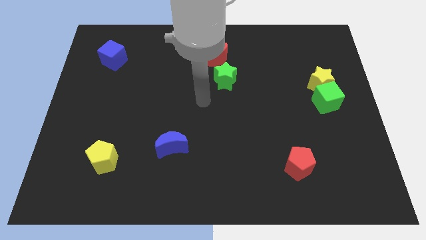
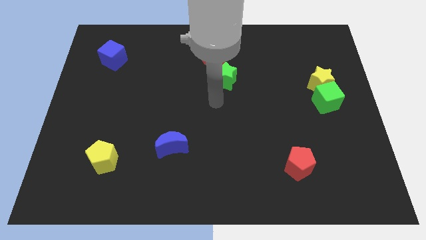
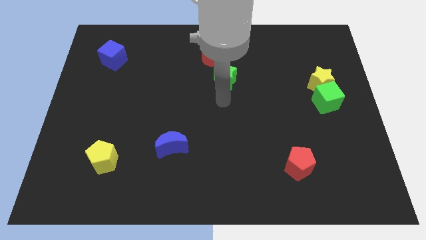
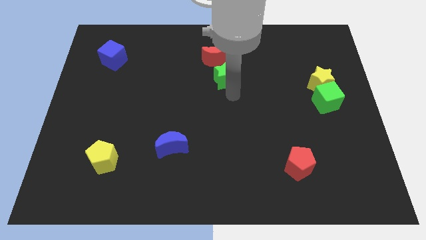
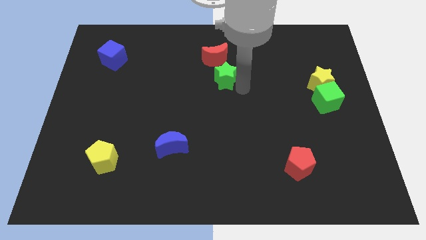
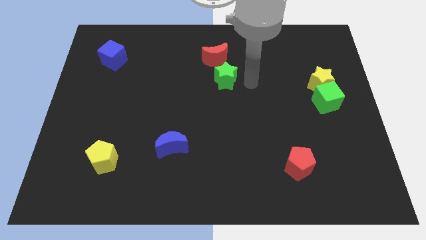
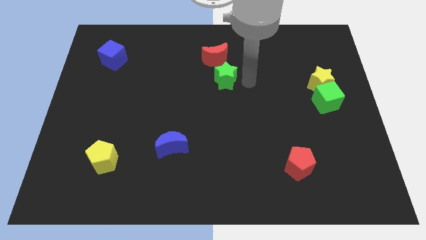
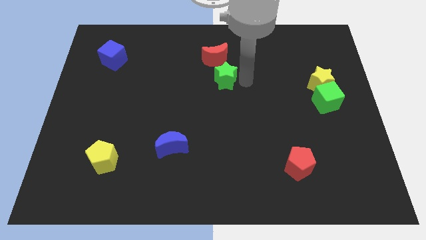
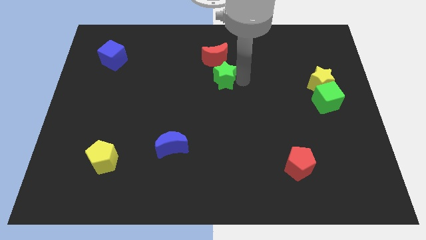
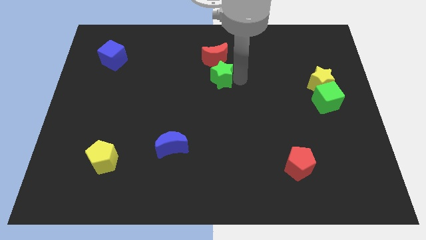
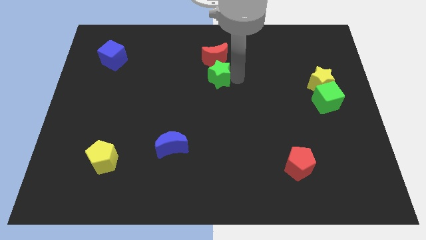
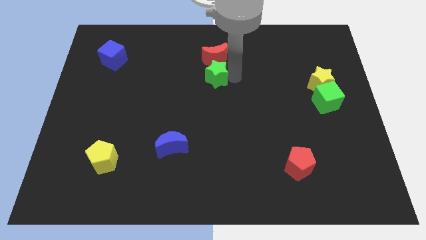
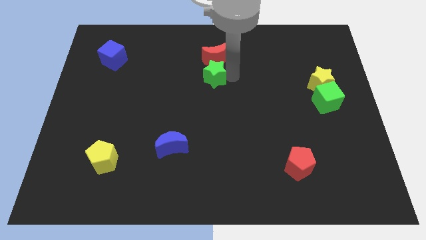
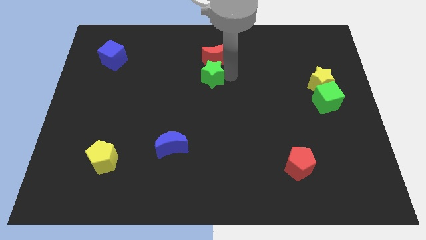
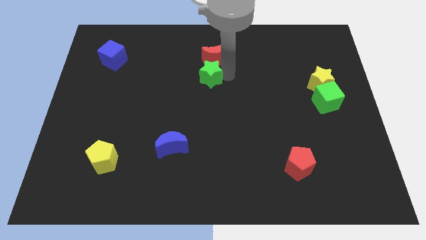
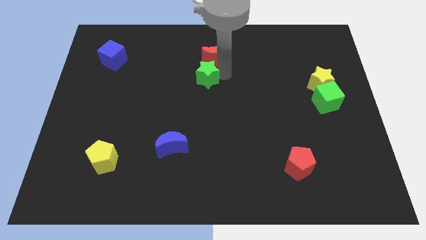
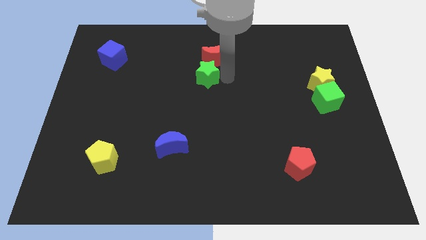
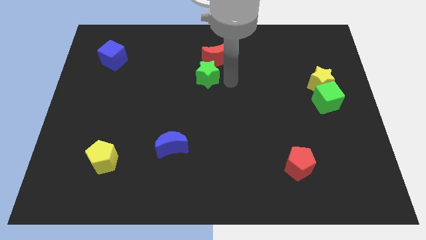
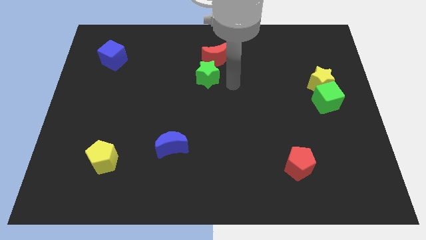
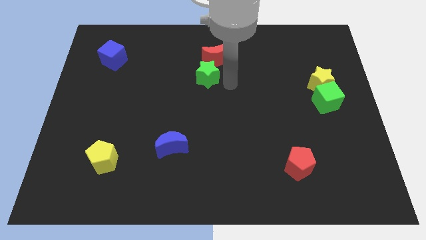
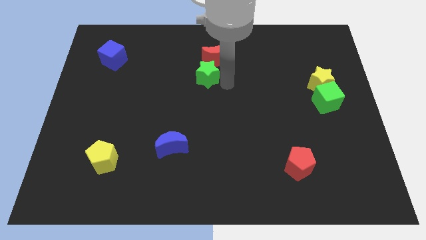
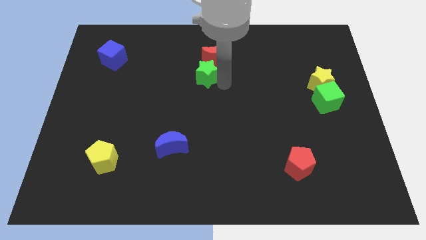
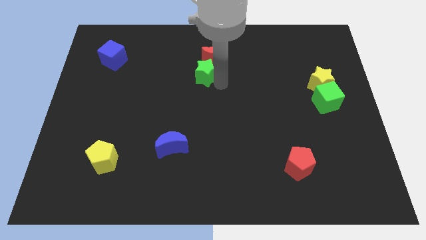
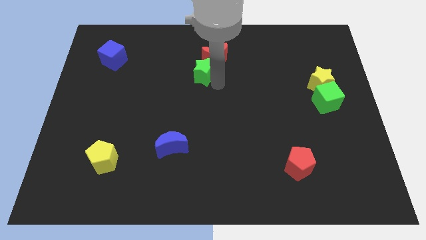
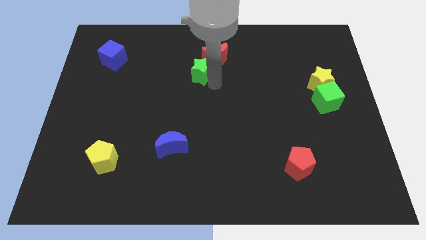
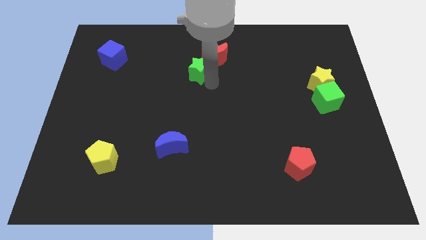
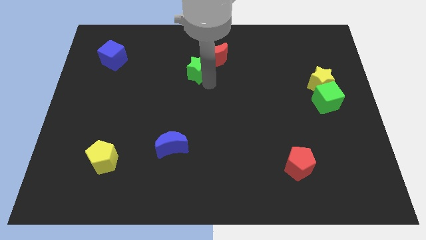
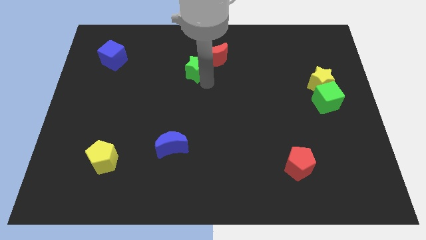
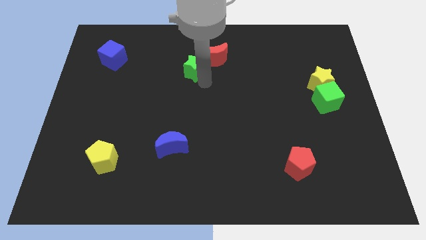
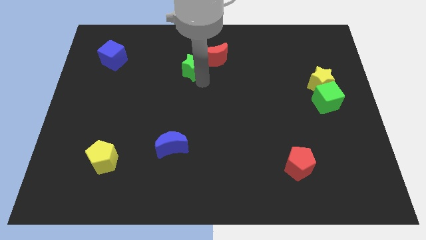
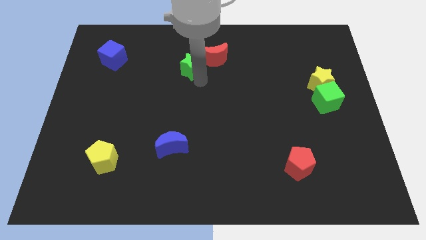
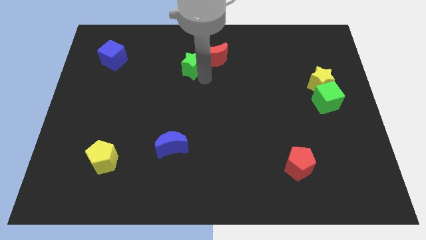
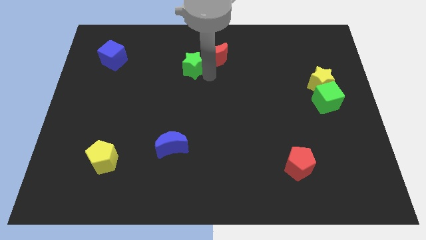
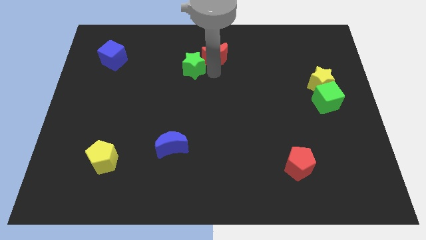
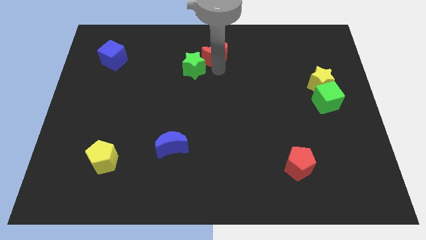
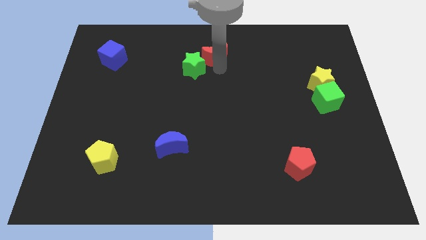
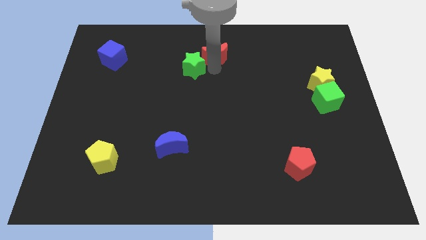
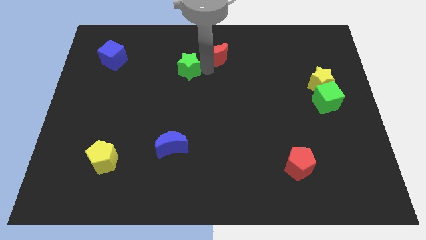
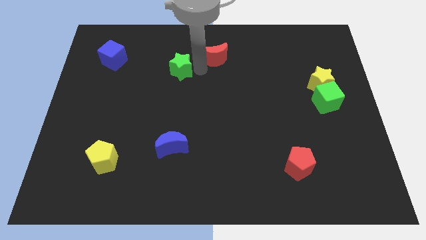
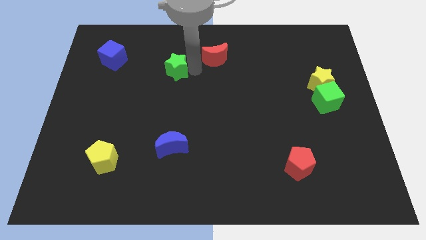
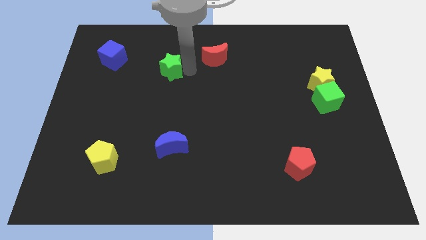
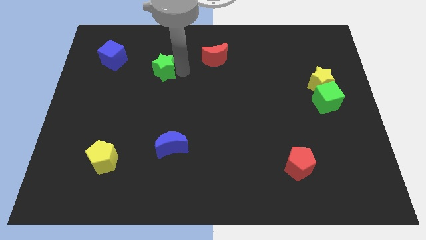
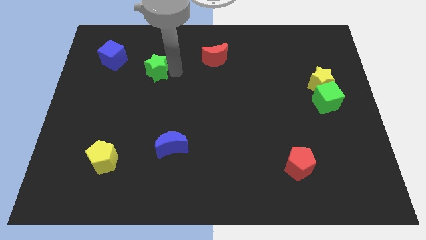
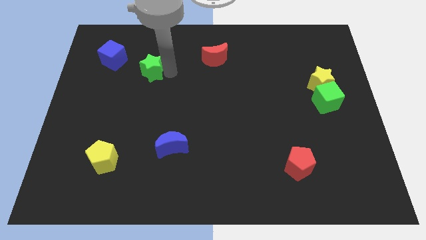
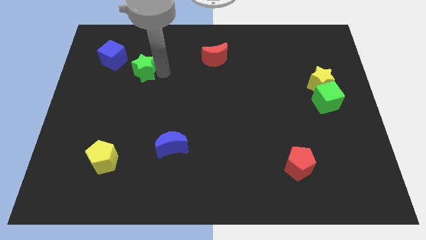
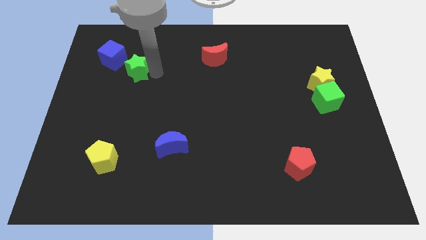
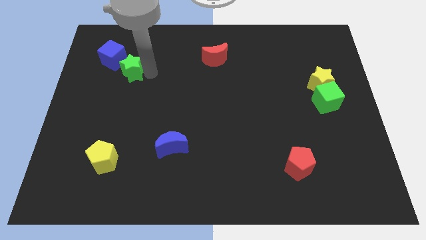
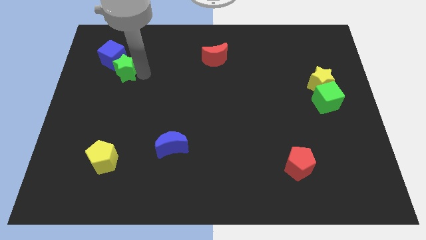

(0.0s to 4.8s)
put the green star towards the blue cube

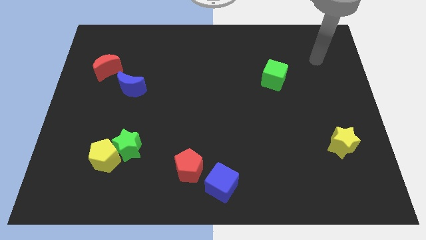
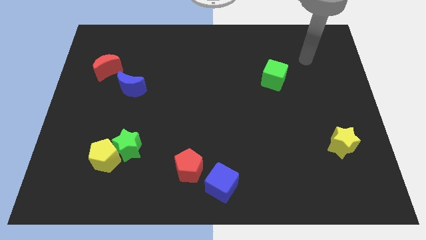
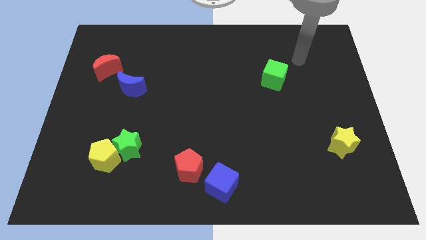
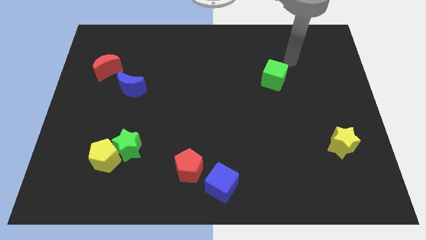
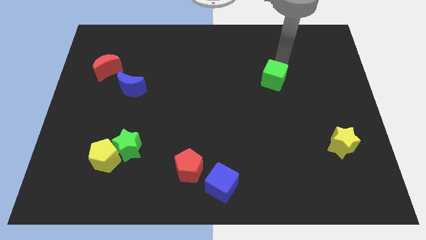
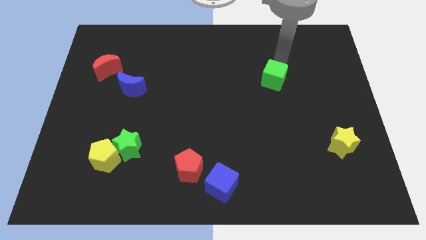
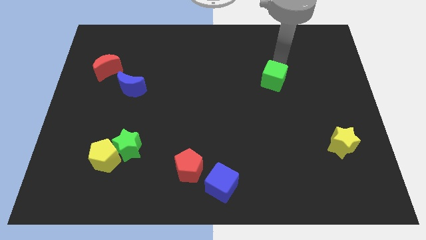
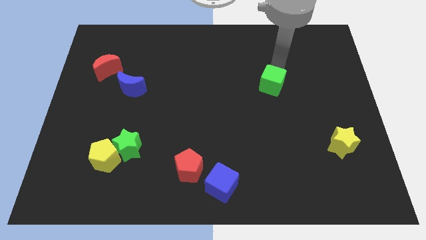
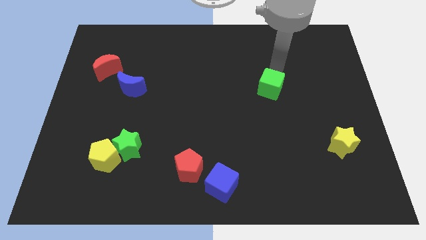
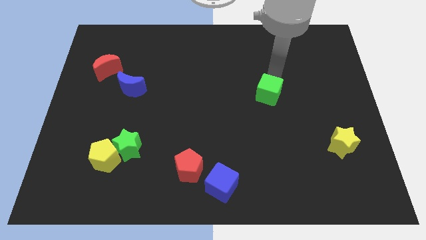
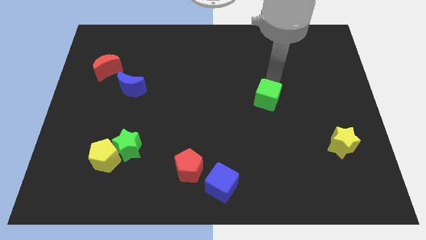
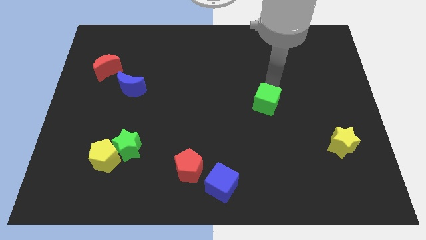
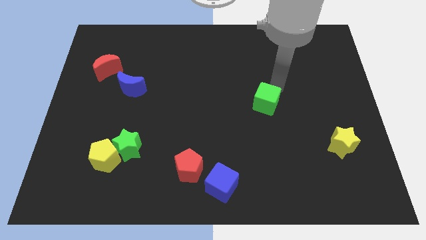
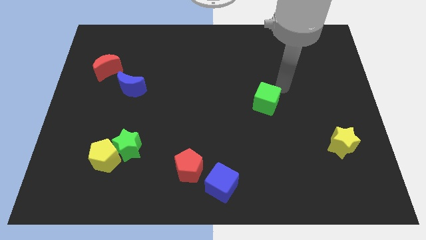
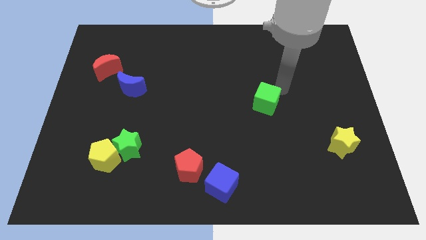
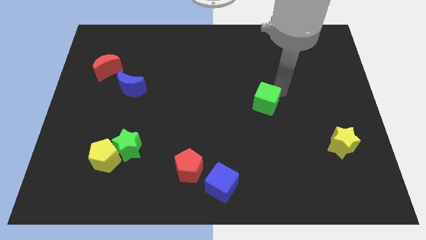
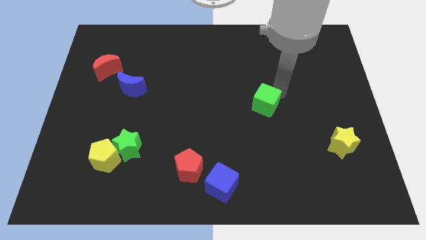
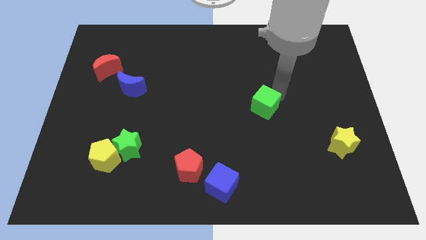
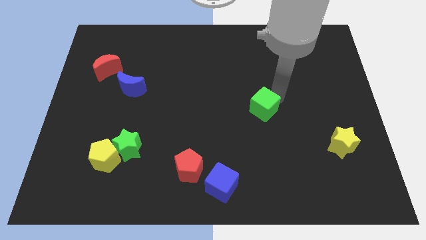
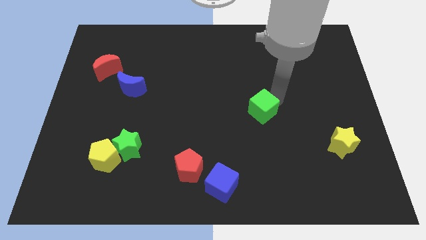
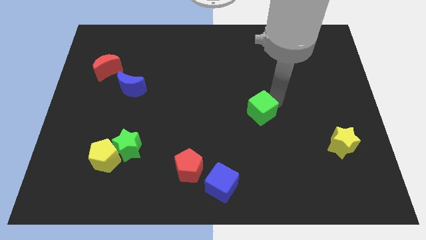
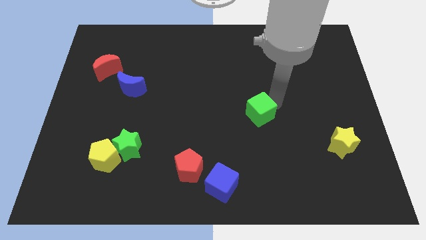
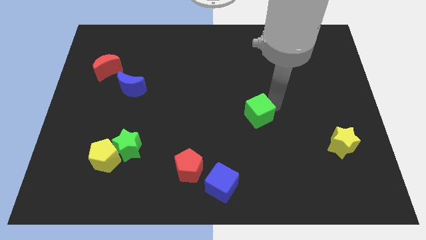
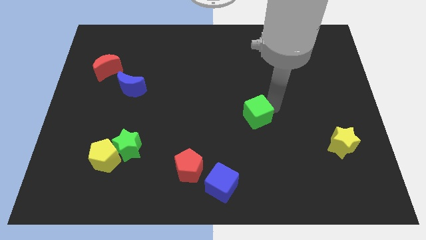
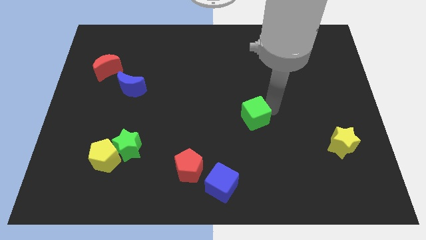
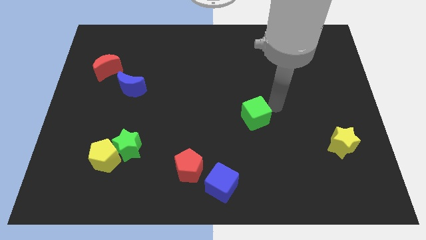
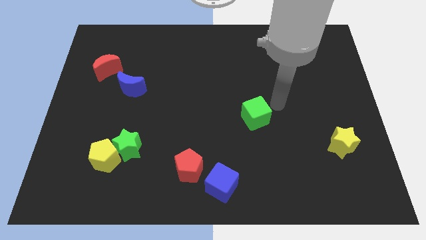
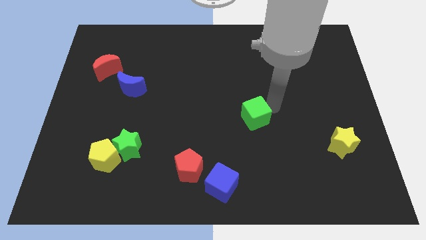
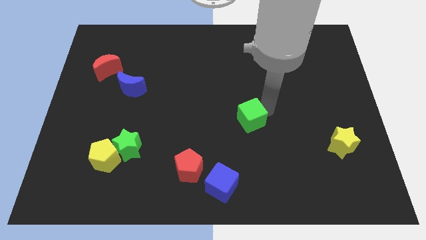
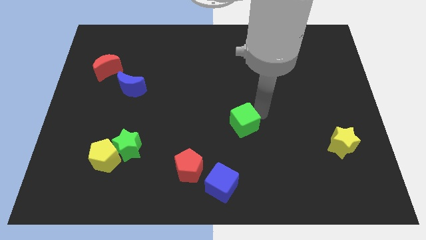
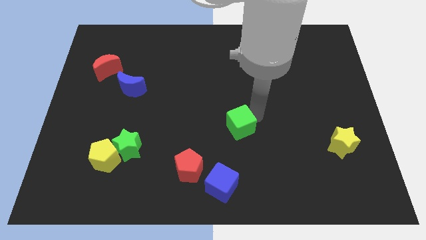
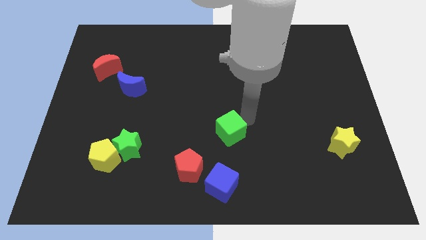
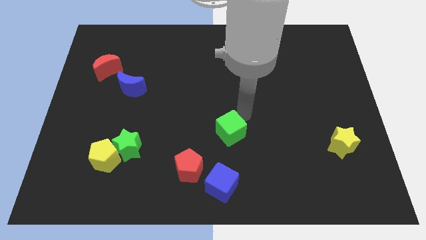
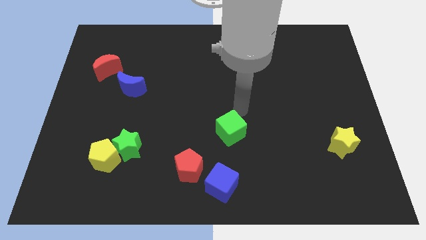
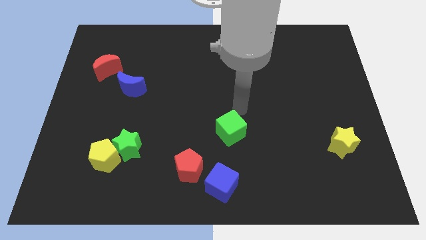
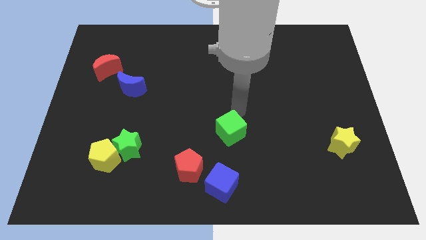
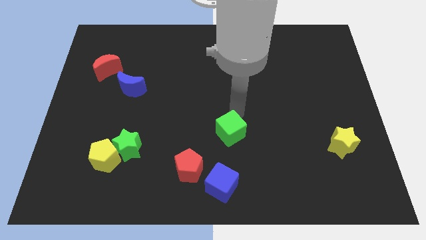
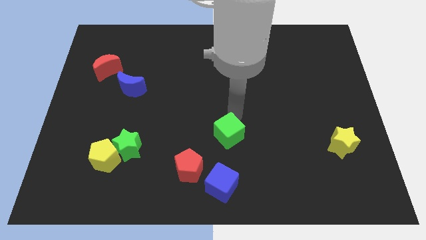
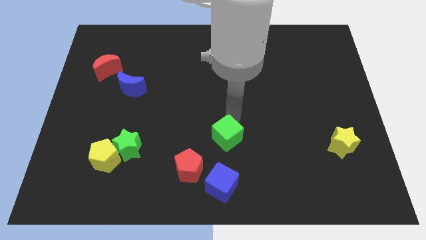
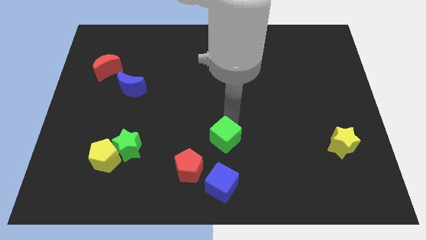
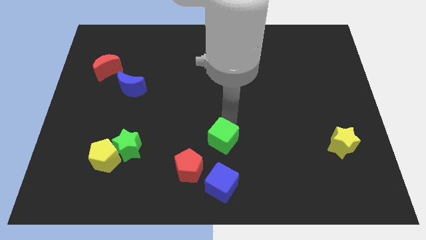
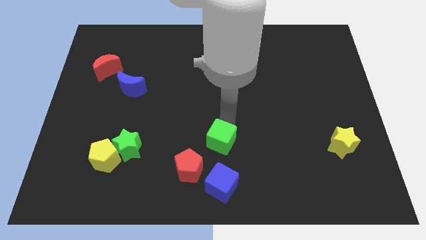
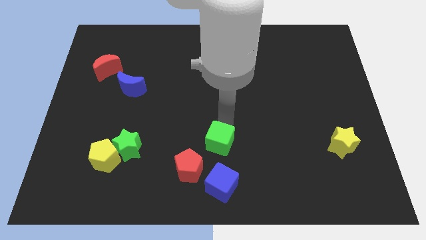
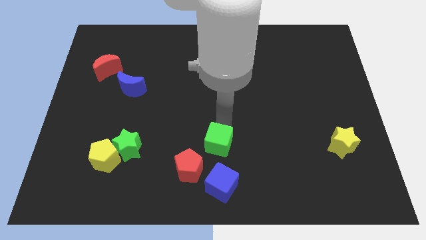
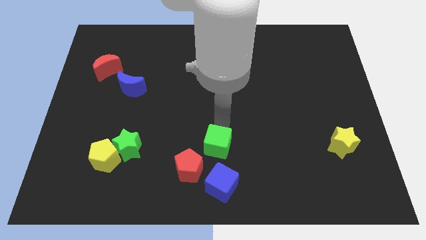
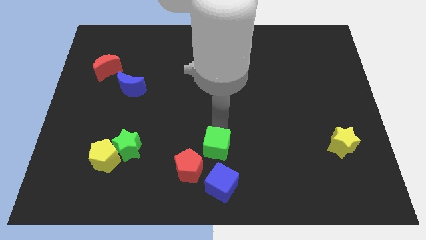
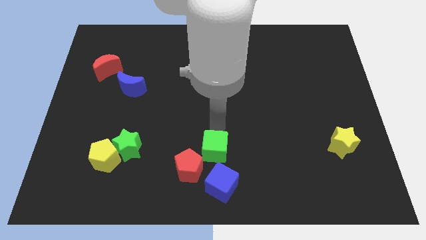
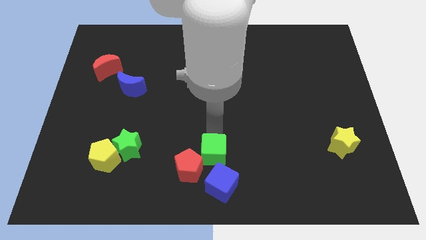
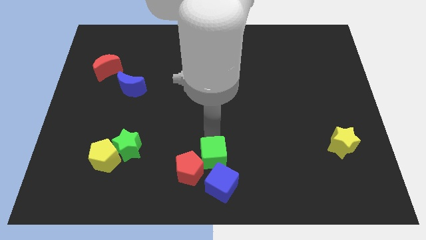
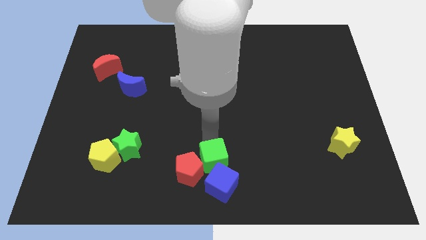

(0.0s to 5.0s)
put the green cube to the blue cube
